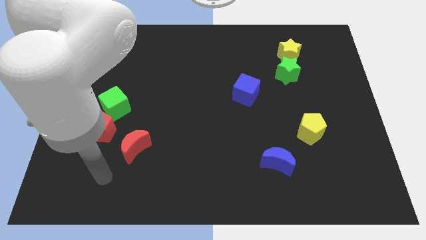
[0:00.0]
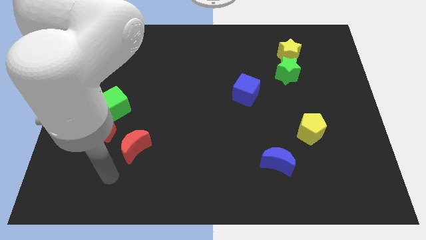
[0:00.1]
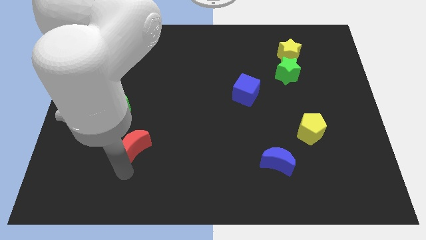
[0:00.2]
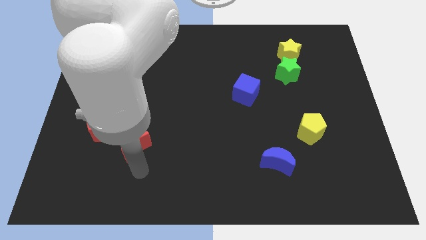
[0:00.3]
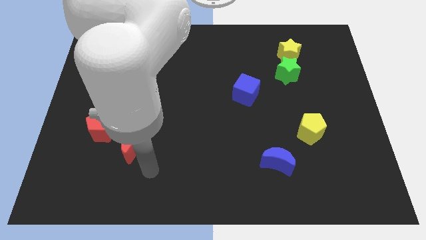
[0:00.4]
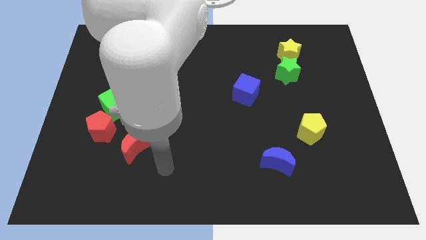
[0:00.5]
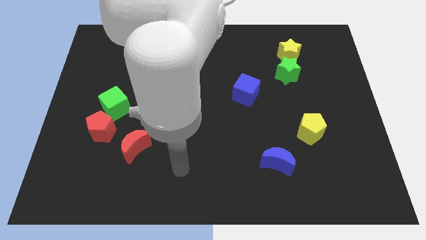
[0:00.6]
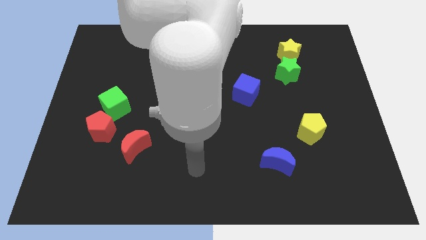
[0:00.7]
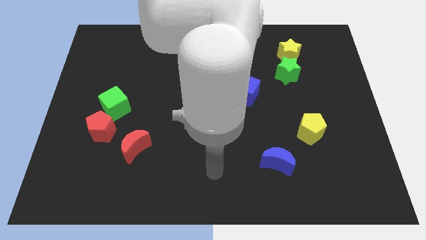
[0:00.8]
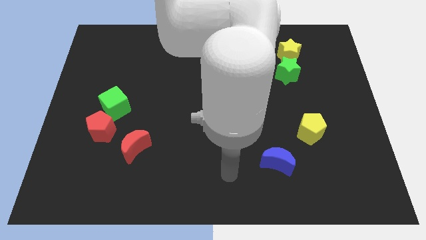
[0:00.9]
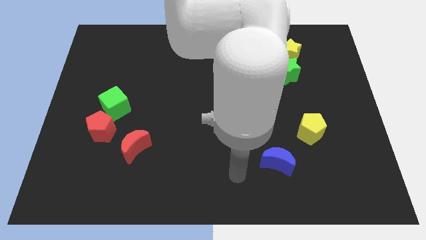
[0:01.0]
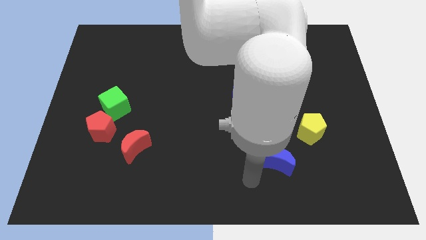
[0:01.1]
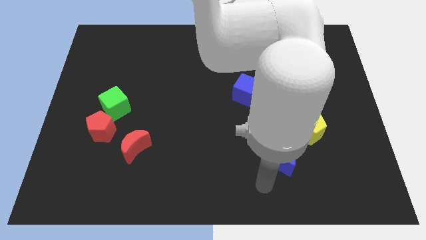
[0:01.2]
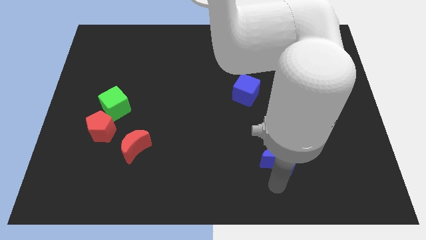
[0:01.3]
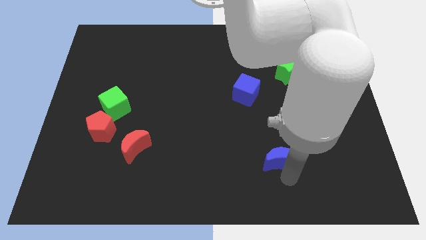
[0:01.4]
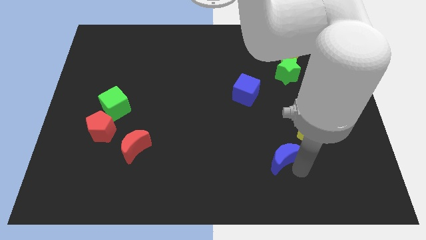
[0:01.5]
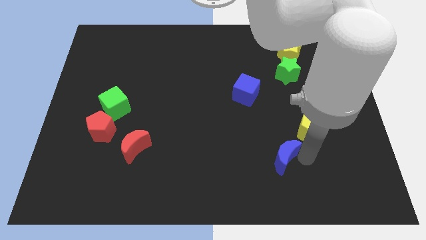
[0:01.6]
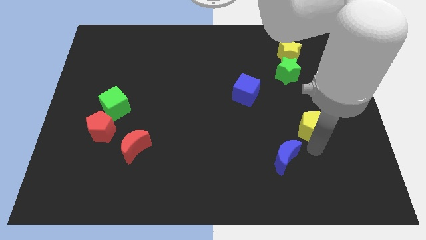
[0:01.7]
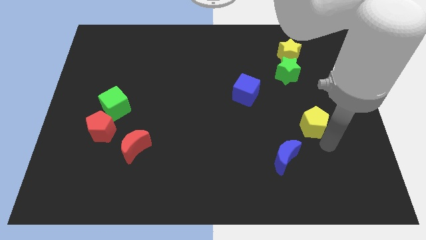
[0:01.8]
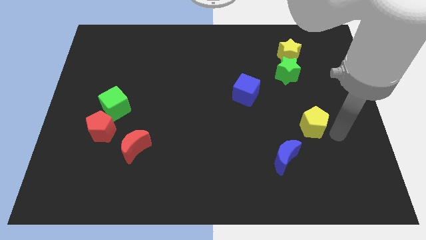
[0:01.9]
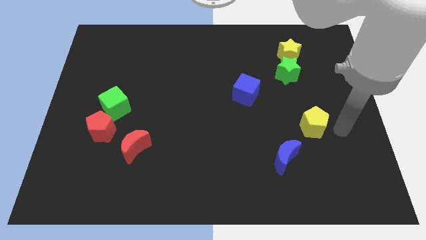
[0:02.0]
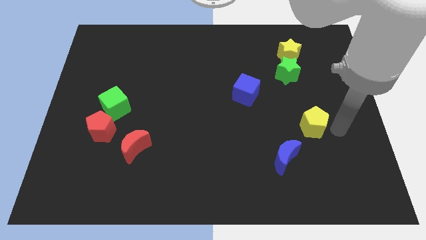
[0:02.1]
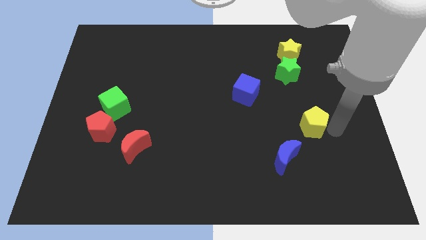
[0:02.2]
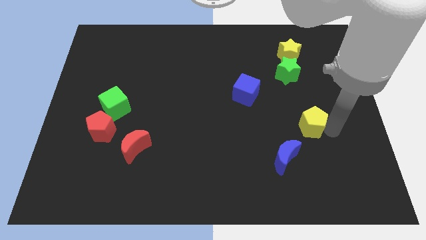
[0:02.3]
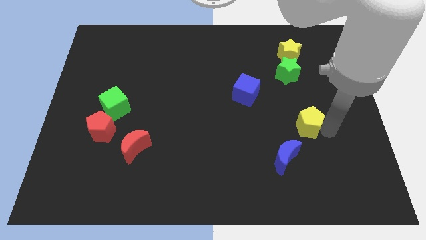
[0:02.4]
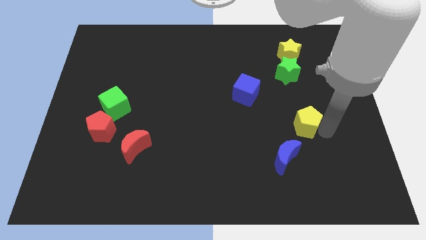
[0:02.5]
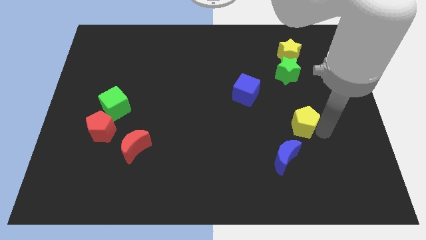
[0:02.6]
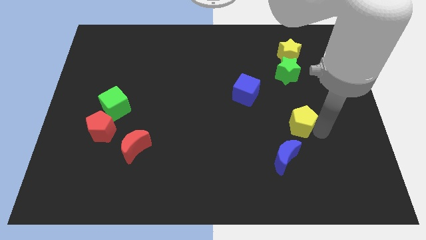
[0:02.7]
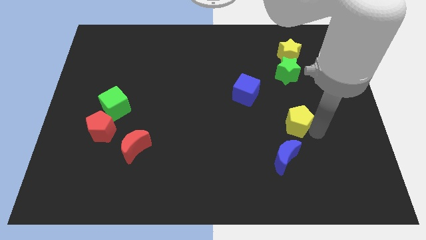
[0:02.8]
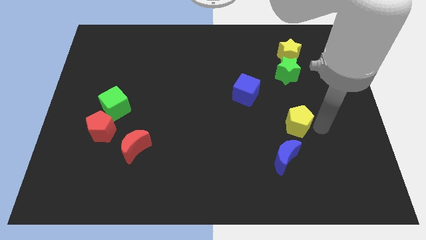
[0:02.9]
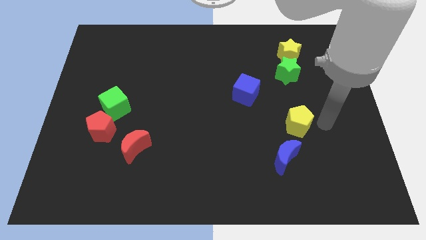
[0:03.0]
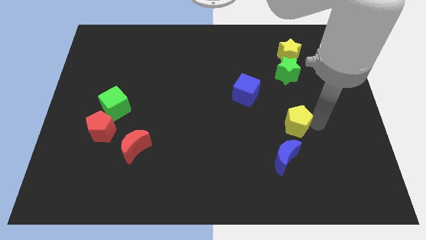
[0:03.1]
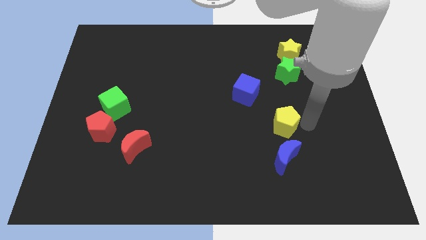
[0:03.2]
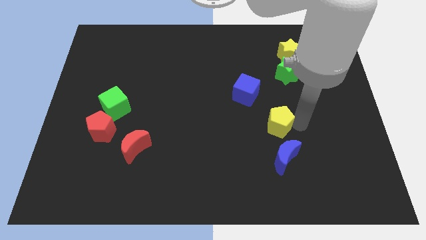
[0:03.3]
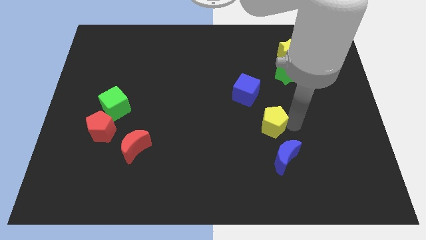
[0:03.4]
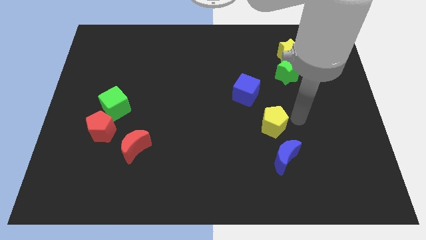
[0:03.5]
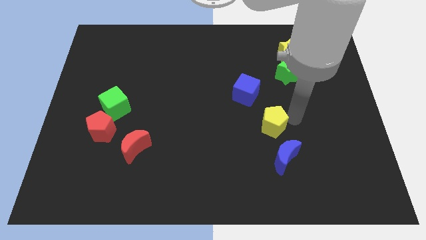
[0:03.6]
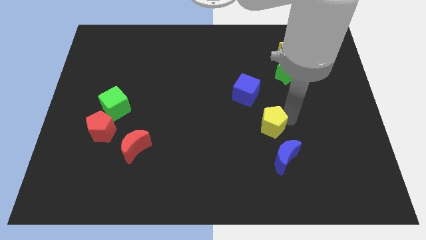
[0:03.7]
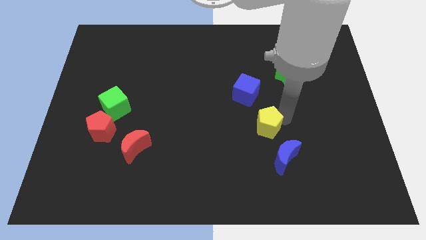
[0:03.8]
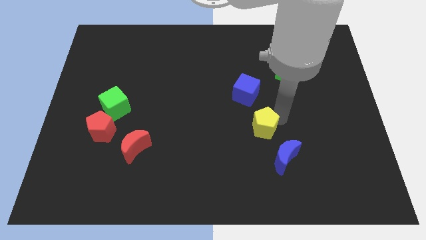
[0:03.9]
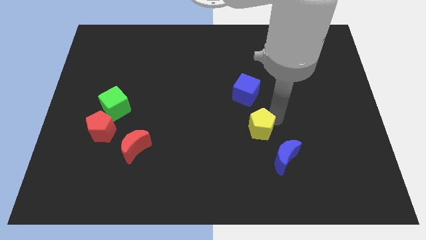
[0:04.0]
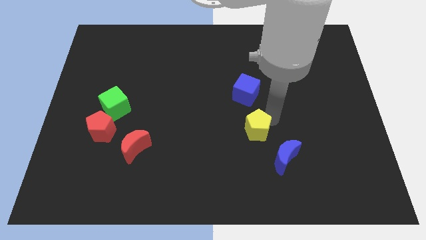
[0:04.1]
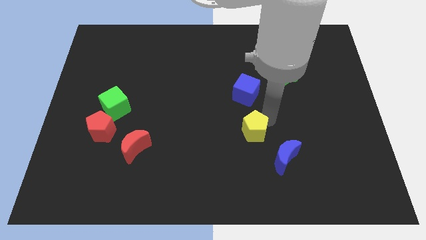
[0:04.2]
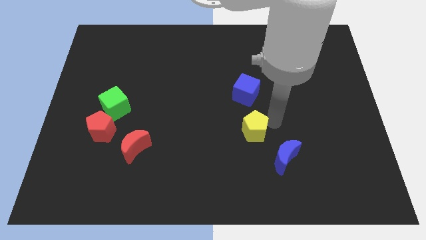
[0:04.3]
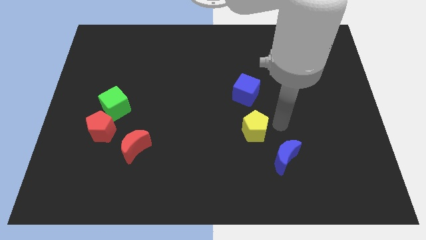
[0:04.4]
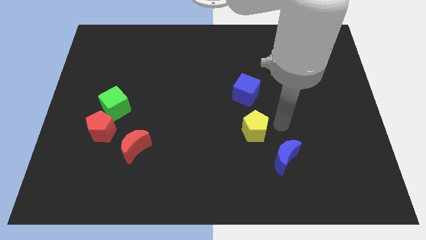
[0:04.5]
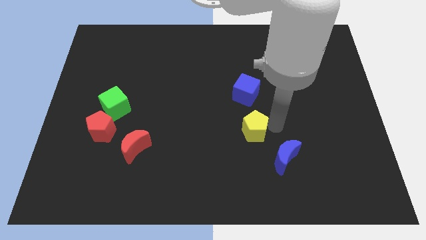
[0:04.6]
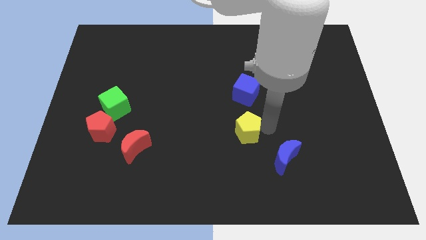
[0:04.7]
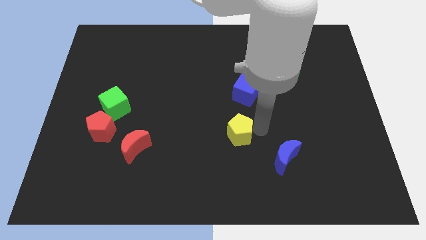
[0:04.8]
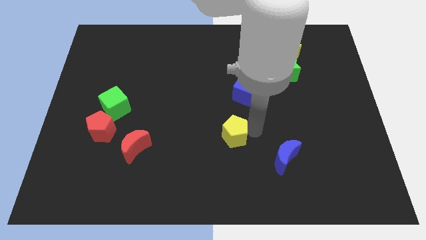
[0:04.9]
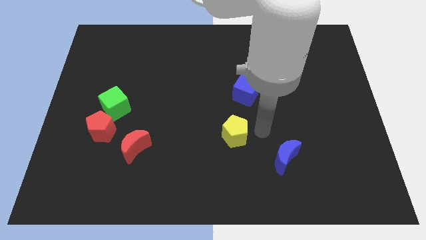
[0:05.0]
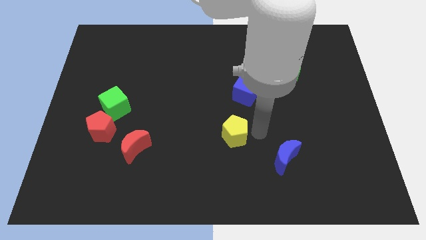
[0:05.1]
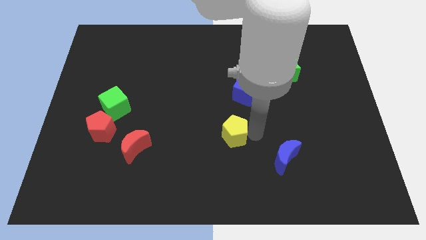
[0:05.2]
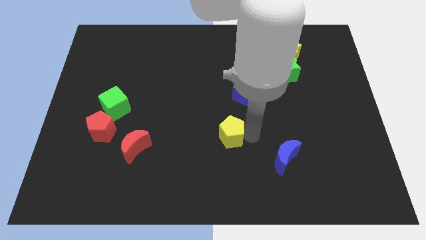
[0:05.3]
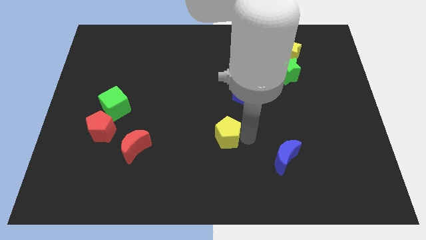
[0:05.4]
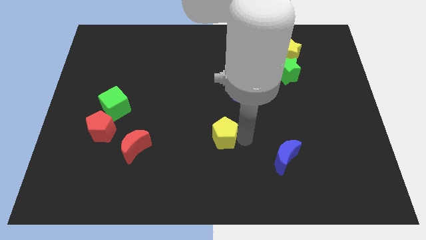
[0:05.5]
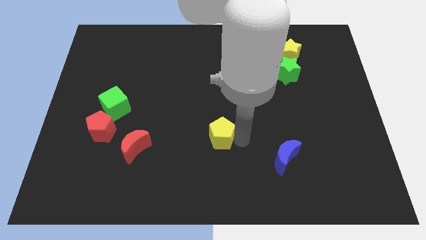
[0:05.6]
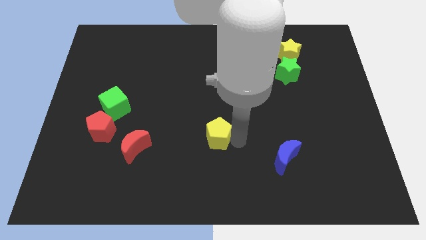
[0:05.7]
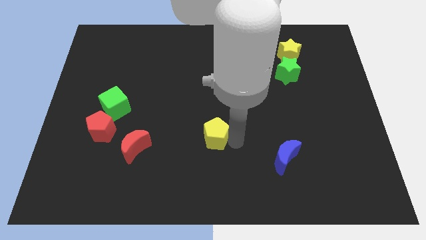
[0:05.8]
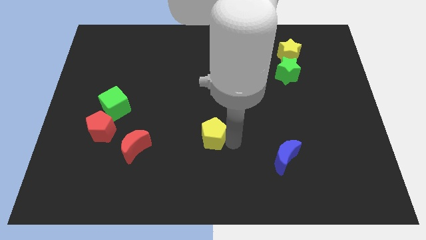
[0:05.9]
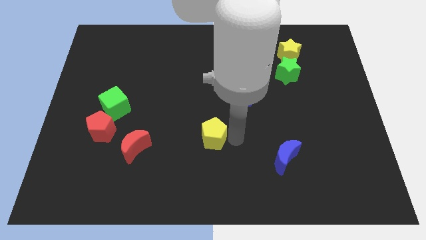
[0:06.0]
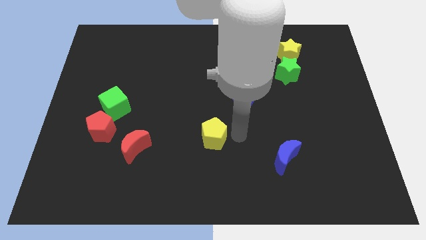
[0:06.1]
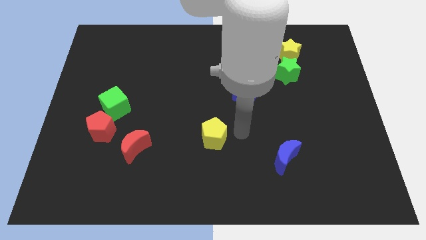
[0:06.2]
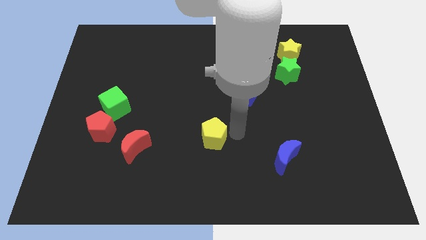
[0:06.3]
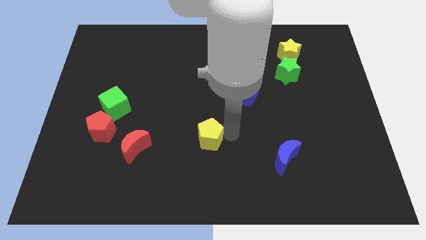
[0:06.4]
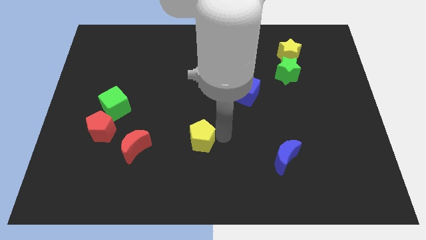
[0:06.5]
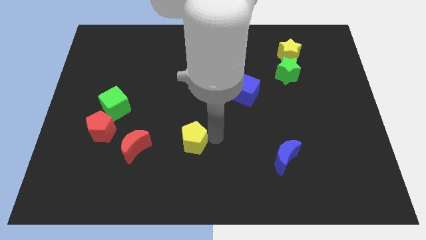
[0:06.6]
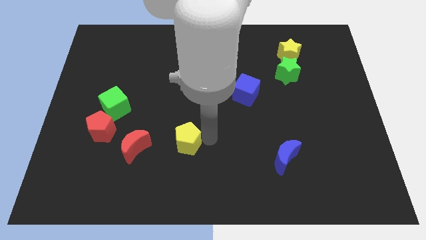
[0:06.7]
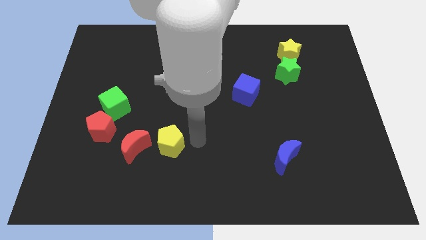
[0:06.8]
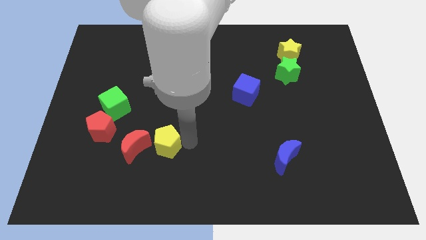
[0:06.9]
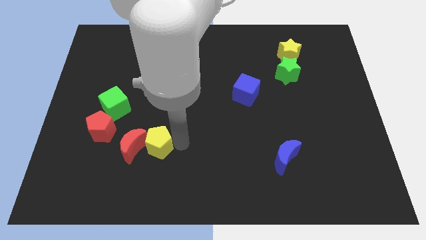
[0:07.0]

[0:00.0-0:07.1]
slide the yellow pentagon towards the red moon
